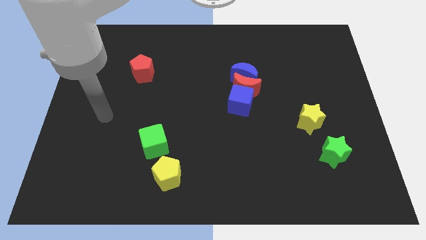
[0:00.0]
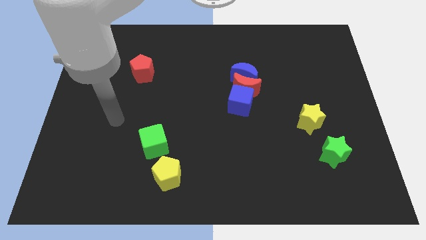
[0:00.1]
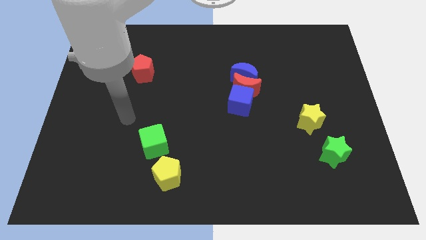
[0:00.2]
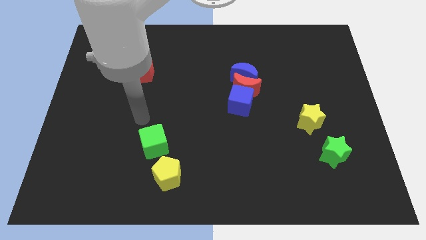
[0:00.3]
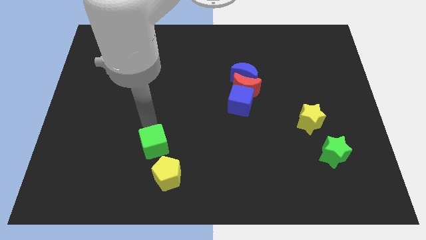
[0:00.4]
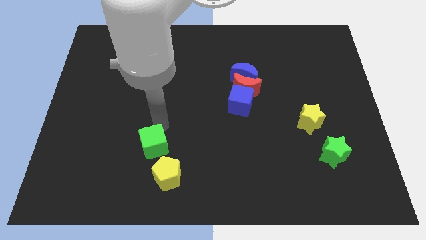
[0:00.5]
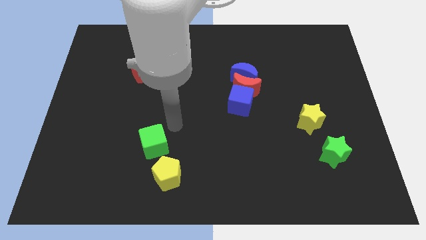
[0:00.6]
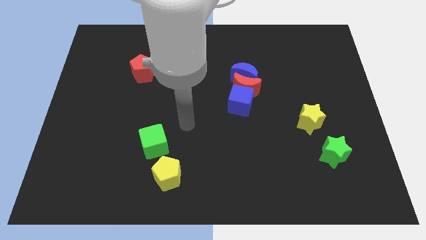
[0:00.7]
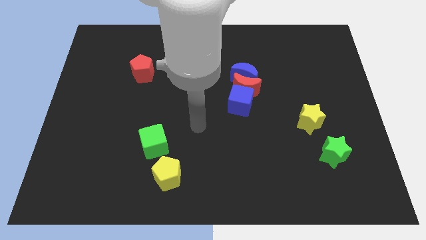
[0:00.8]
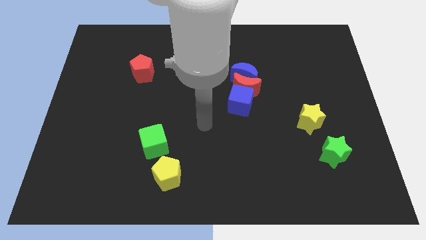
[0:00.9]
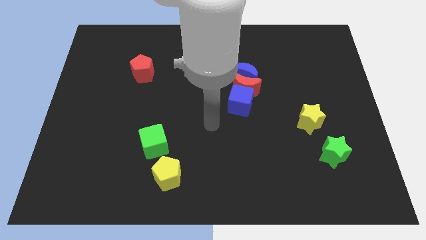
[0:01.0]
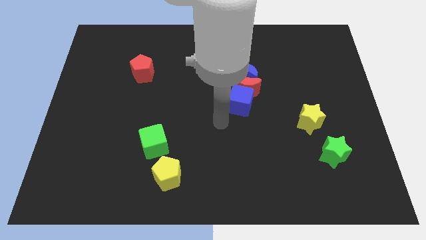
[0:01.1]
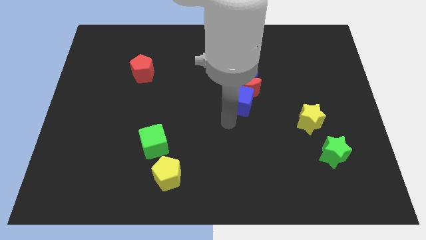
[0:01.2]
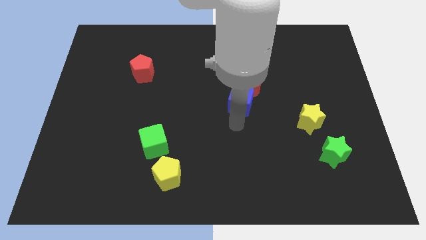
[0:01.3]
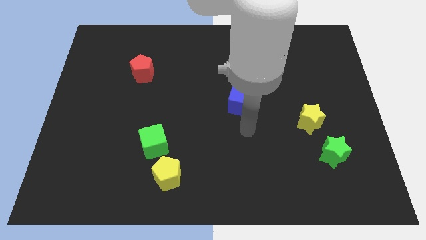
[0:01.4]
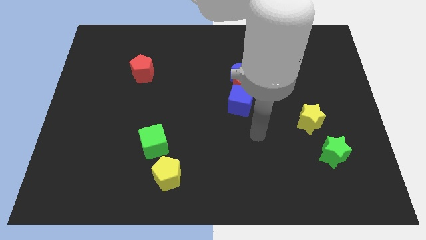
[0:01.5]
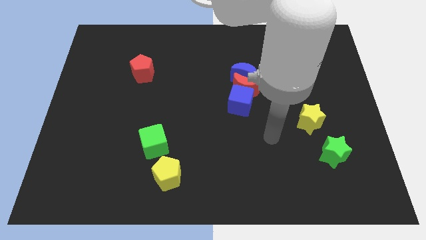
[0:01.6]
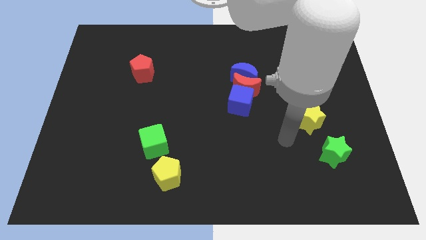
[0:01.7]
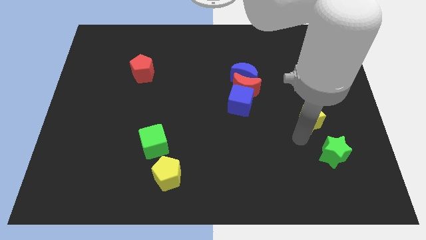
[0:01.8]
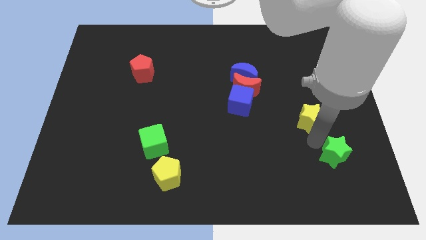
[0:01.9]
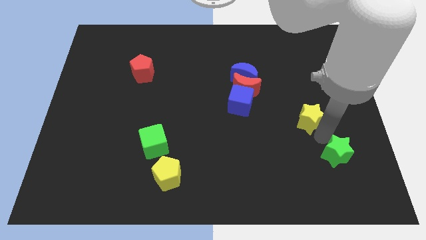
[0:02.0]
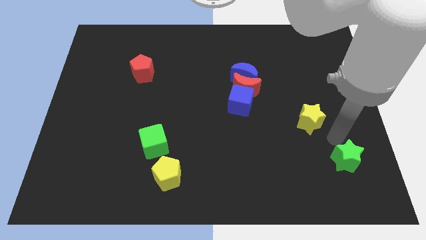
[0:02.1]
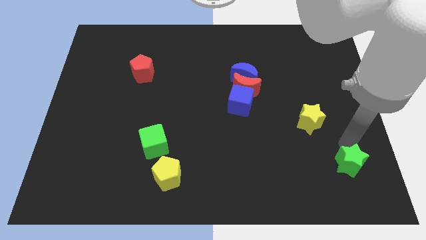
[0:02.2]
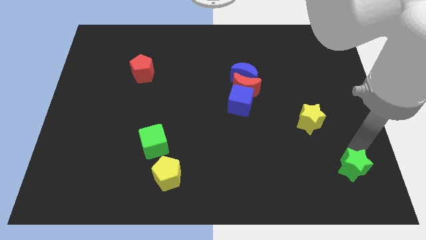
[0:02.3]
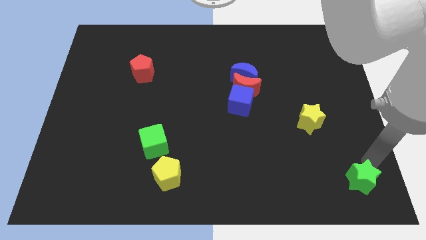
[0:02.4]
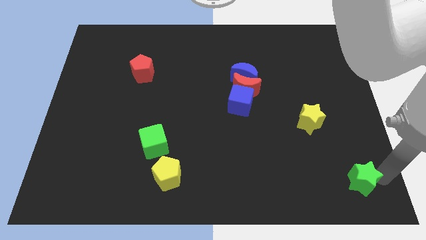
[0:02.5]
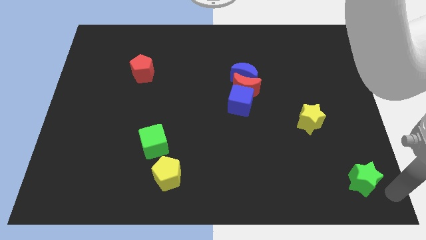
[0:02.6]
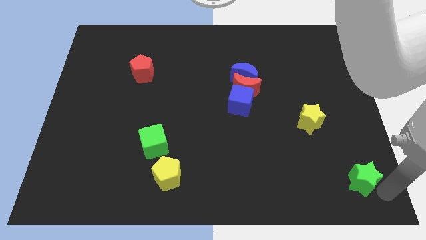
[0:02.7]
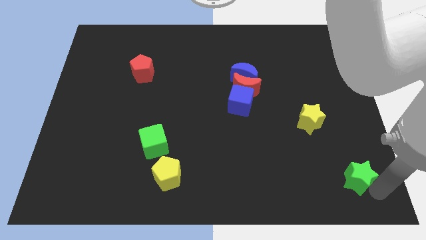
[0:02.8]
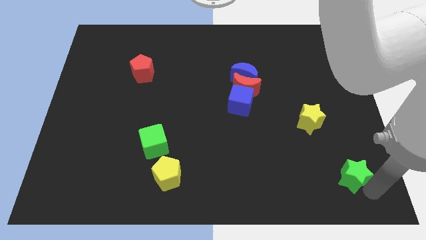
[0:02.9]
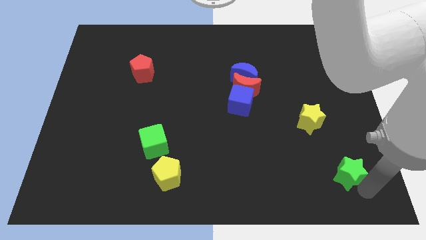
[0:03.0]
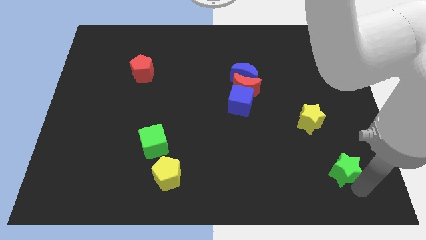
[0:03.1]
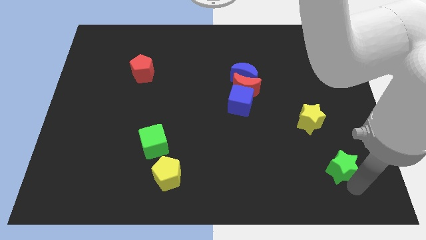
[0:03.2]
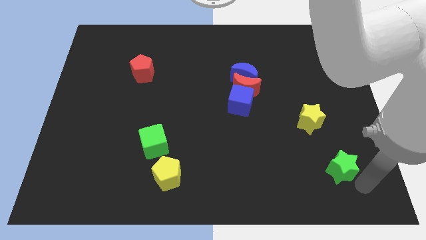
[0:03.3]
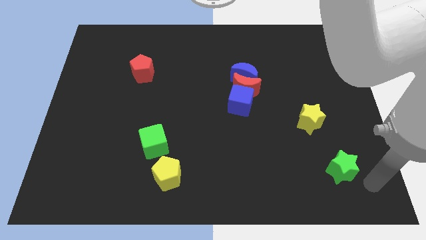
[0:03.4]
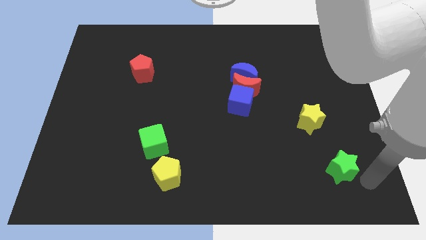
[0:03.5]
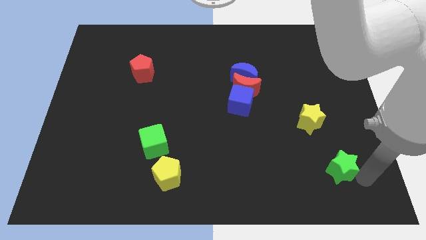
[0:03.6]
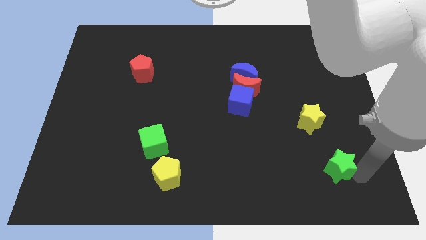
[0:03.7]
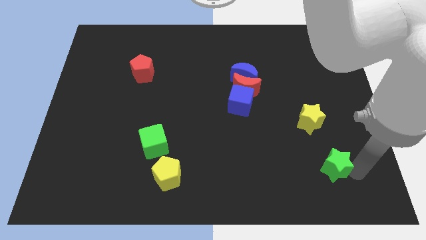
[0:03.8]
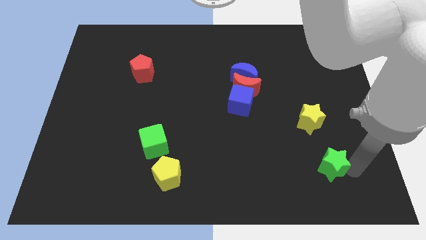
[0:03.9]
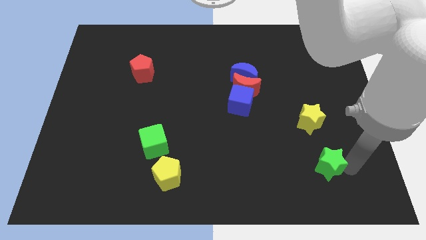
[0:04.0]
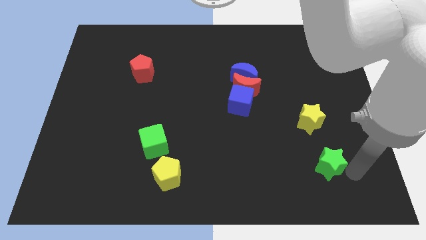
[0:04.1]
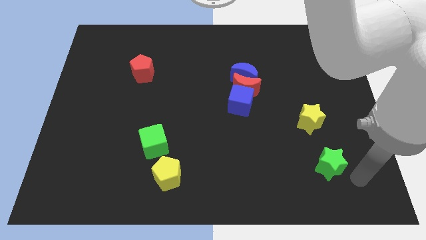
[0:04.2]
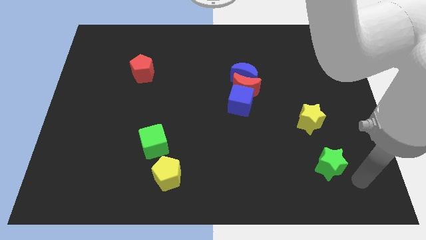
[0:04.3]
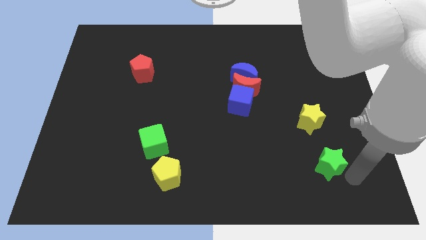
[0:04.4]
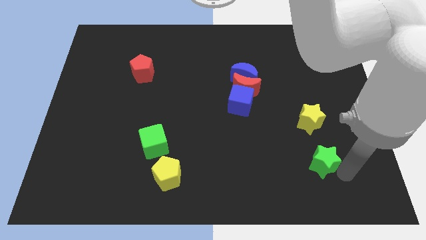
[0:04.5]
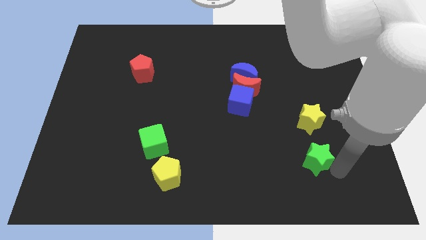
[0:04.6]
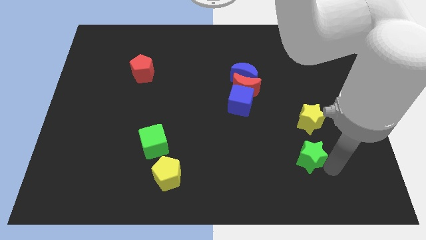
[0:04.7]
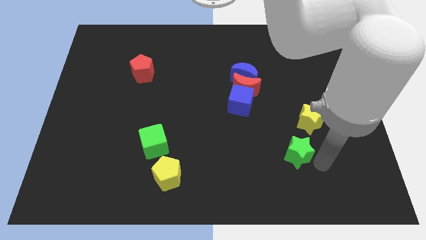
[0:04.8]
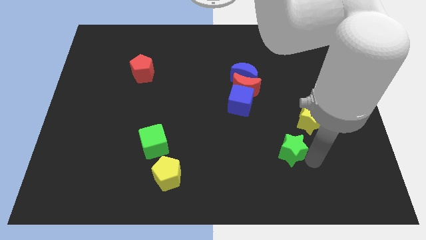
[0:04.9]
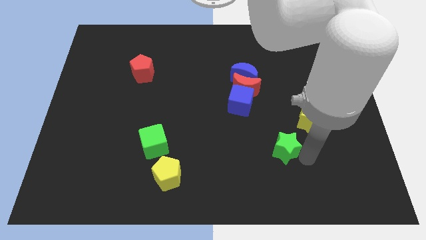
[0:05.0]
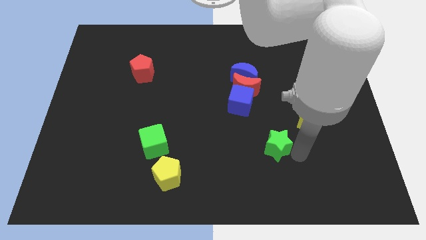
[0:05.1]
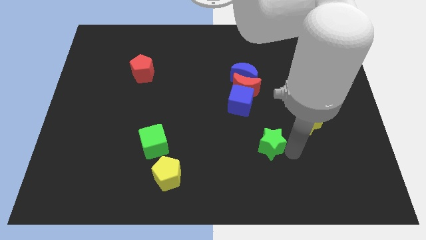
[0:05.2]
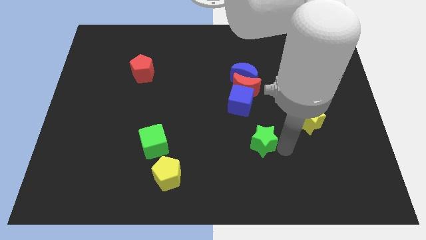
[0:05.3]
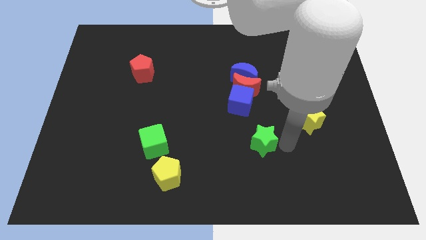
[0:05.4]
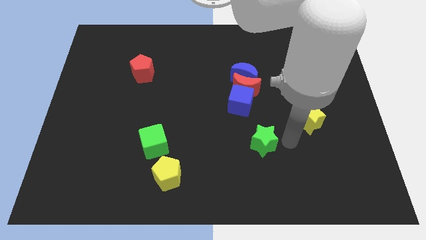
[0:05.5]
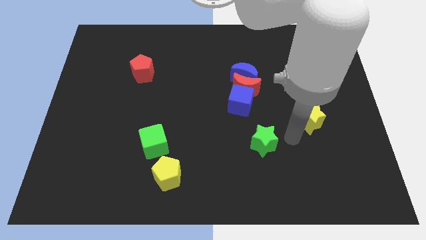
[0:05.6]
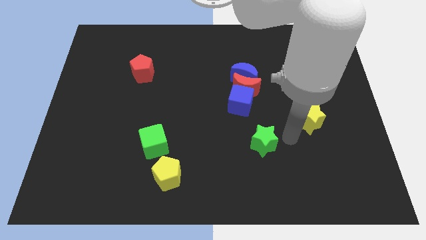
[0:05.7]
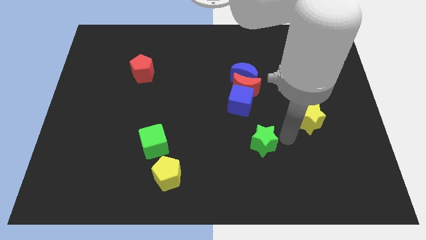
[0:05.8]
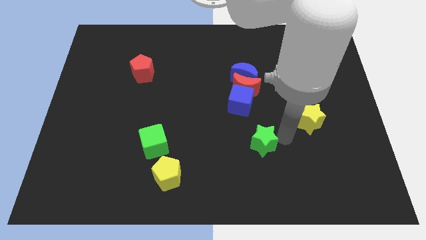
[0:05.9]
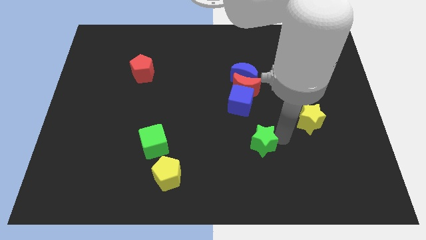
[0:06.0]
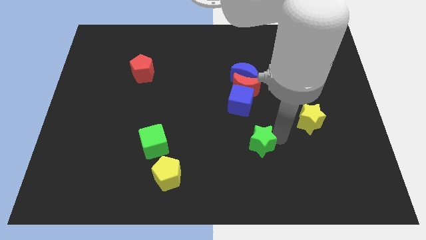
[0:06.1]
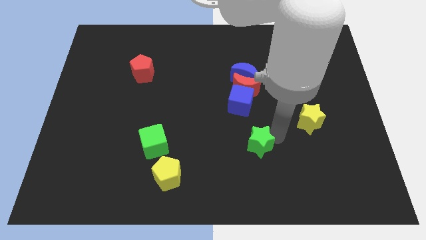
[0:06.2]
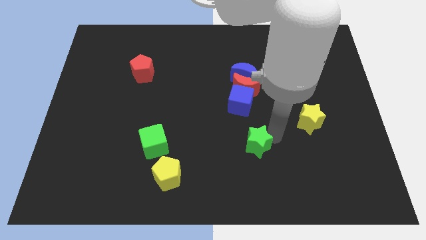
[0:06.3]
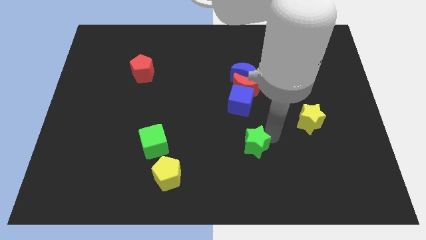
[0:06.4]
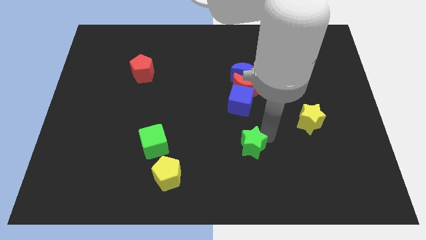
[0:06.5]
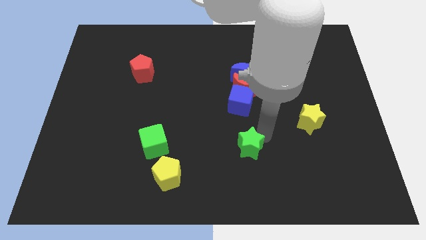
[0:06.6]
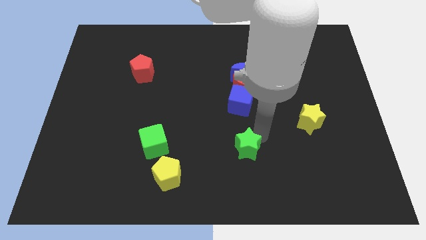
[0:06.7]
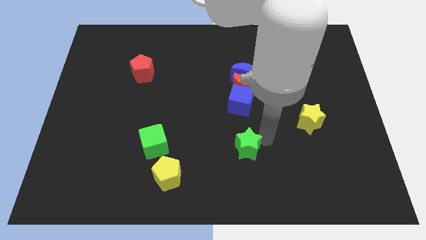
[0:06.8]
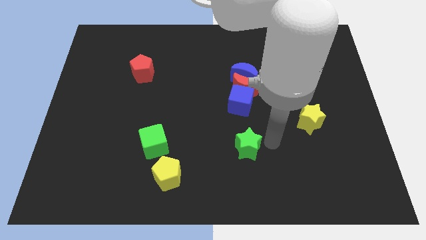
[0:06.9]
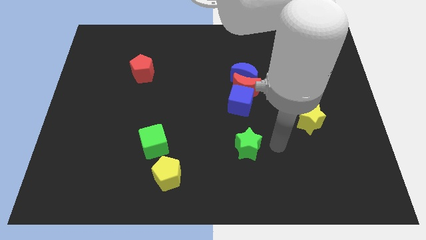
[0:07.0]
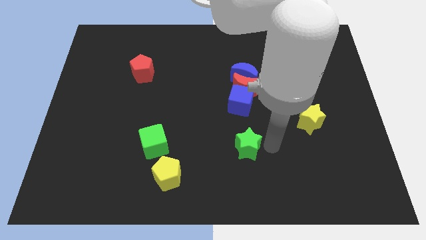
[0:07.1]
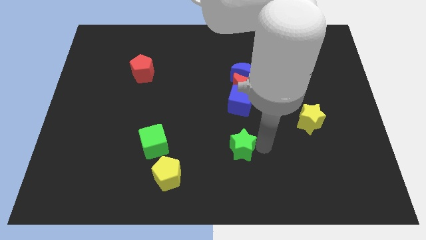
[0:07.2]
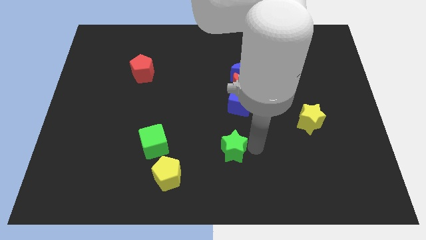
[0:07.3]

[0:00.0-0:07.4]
push the green star left

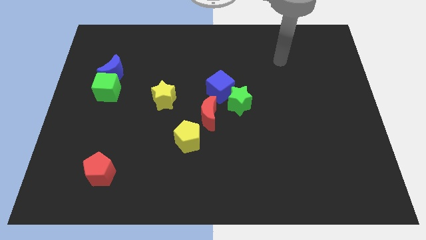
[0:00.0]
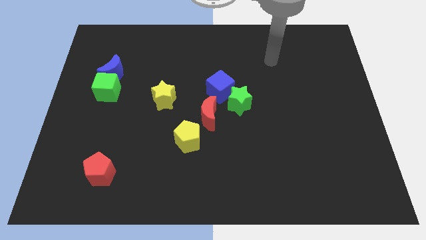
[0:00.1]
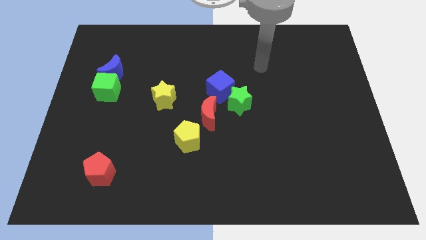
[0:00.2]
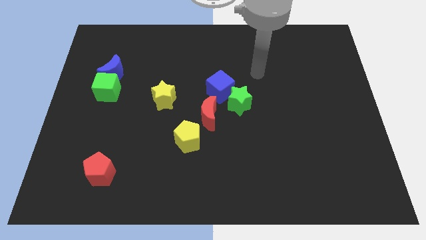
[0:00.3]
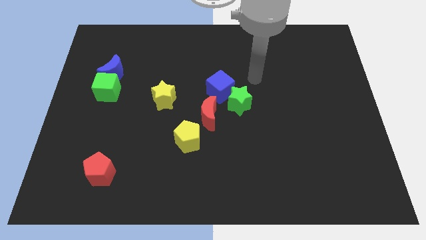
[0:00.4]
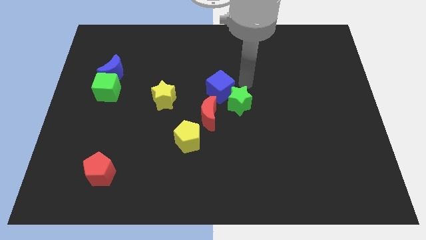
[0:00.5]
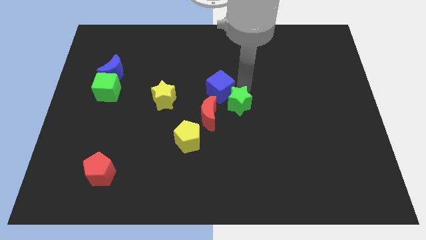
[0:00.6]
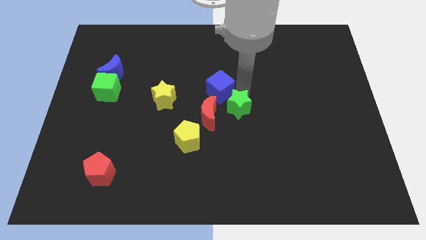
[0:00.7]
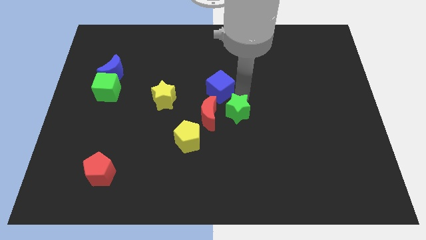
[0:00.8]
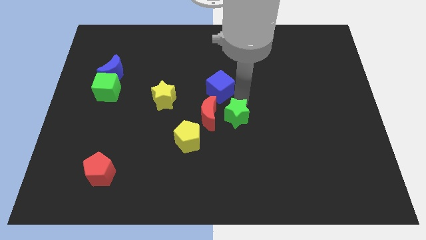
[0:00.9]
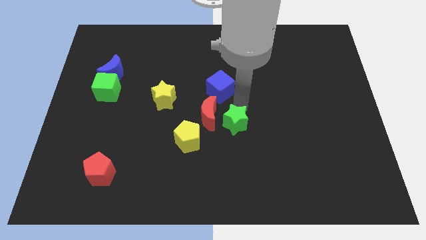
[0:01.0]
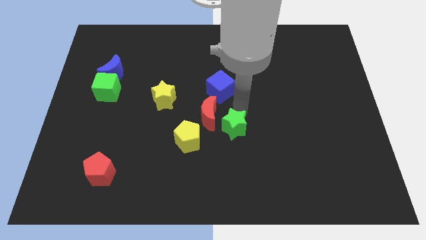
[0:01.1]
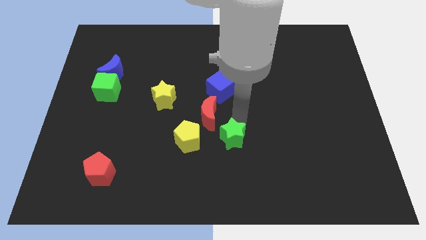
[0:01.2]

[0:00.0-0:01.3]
move the green star a bit diagonally downwards and to the left
